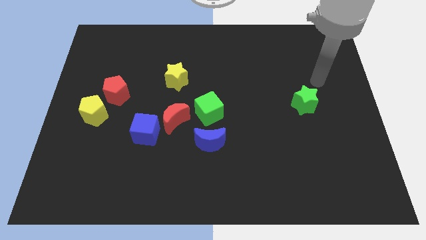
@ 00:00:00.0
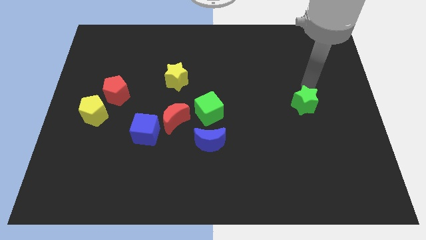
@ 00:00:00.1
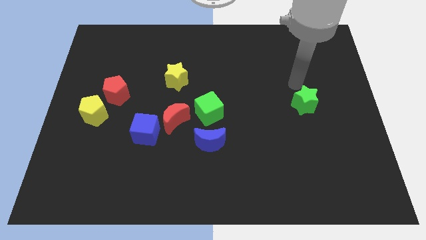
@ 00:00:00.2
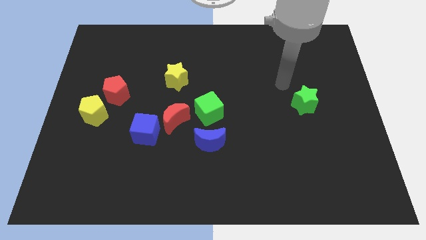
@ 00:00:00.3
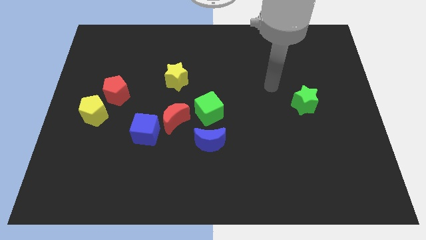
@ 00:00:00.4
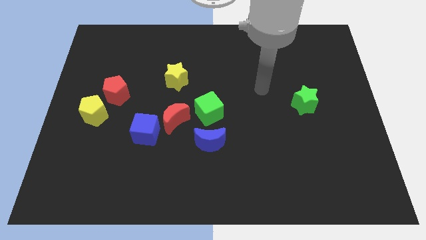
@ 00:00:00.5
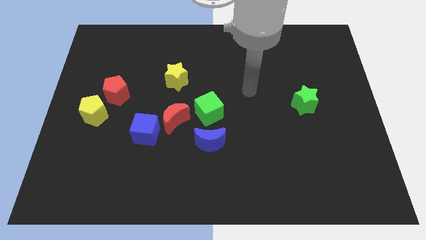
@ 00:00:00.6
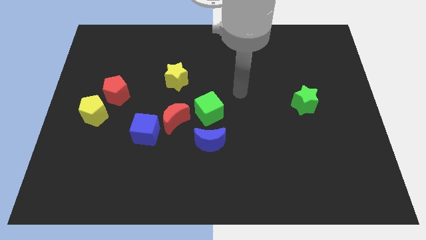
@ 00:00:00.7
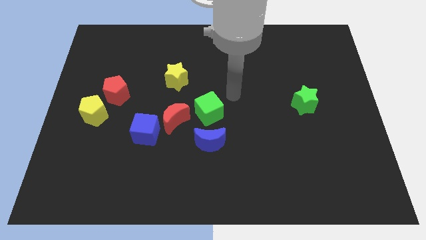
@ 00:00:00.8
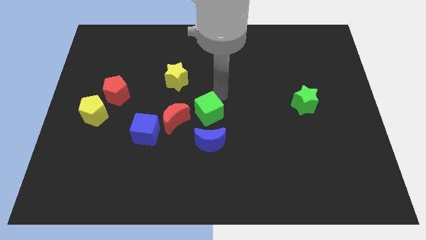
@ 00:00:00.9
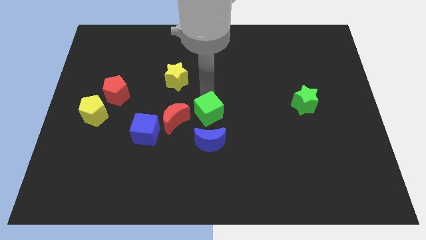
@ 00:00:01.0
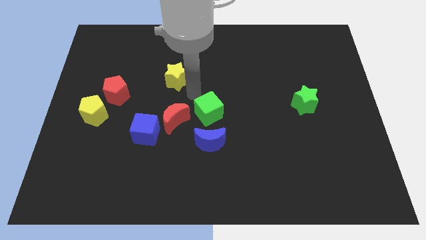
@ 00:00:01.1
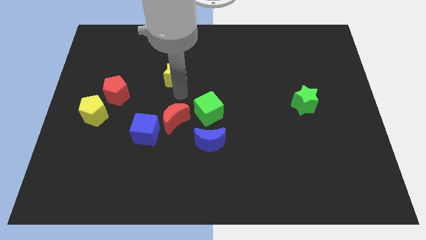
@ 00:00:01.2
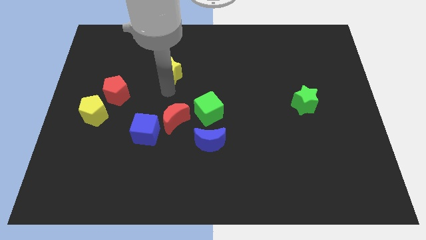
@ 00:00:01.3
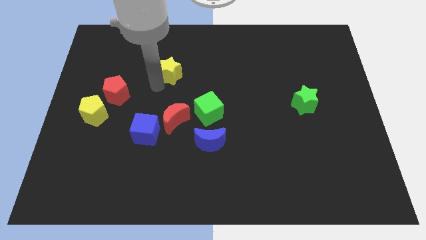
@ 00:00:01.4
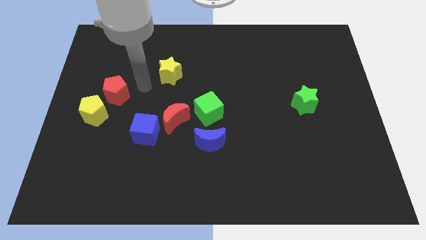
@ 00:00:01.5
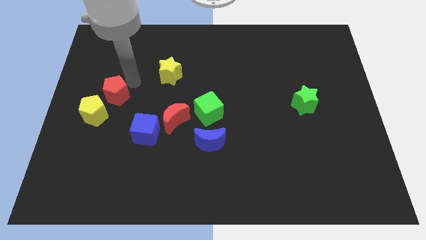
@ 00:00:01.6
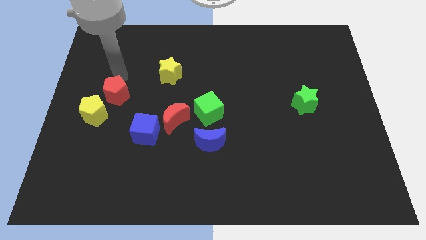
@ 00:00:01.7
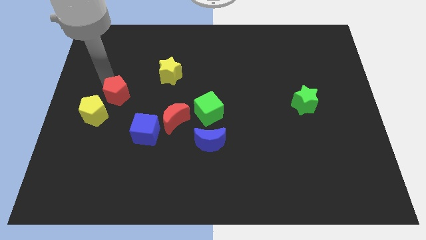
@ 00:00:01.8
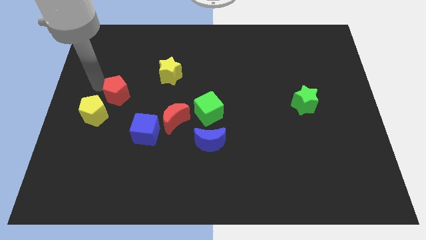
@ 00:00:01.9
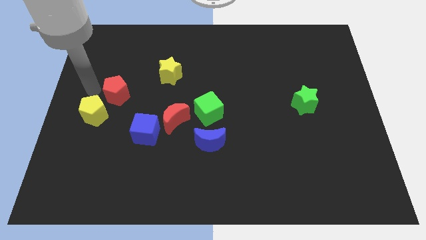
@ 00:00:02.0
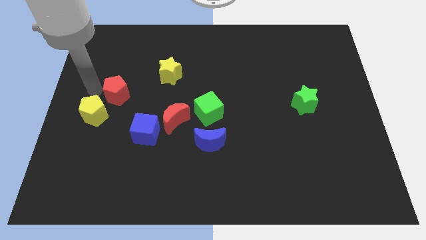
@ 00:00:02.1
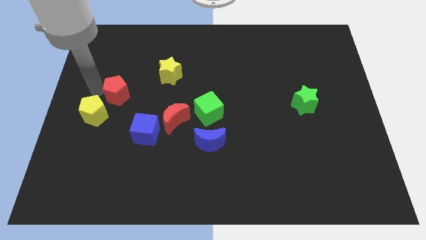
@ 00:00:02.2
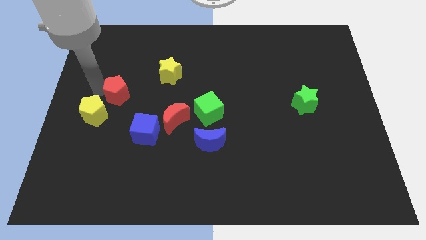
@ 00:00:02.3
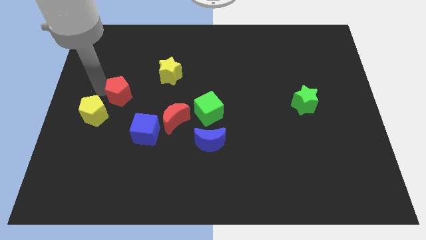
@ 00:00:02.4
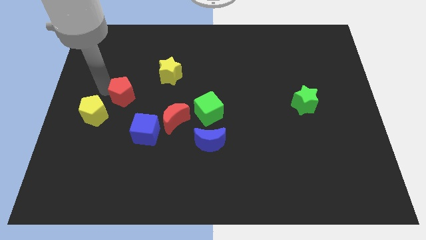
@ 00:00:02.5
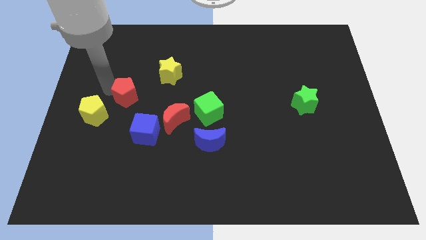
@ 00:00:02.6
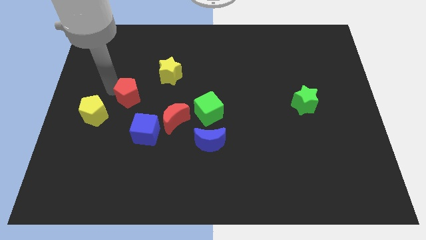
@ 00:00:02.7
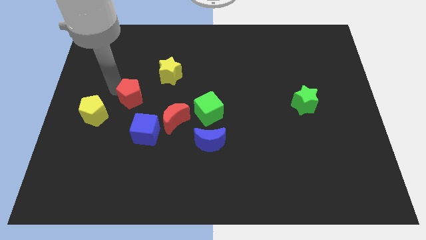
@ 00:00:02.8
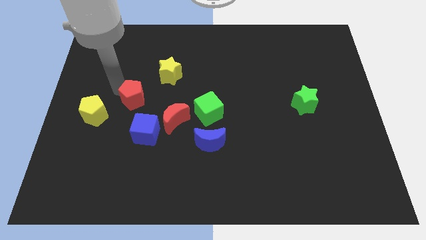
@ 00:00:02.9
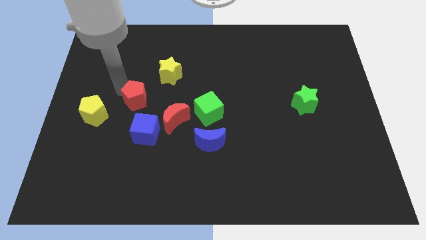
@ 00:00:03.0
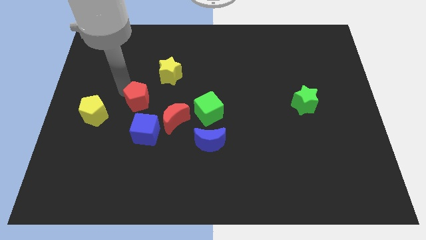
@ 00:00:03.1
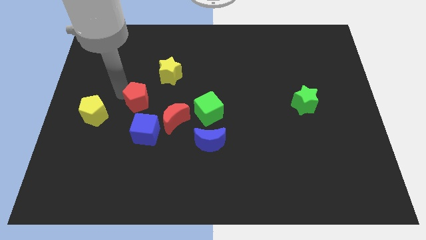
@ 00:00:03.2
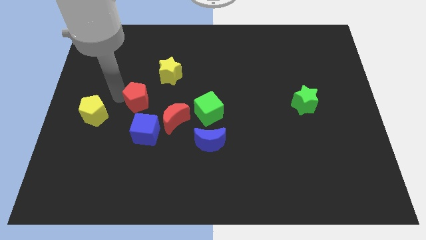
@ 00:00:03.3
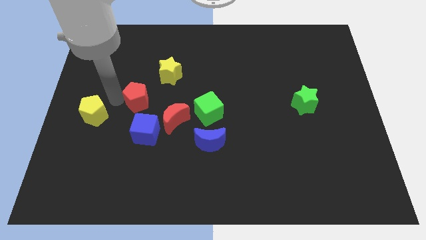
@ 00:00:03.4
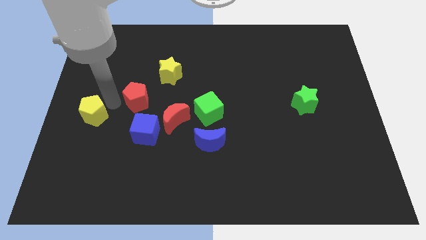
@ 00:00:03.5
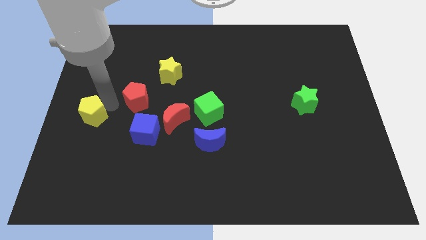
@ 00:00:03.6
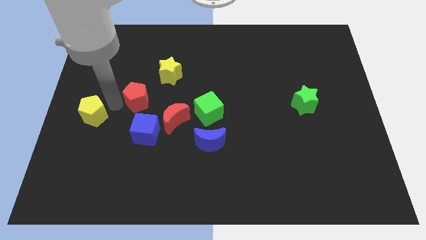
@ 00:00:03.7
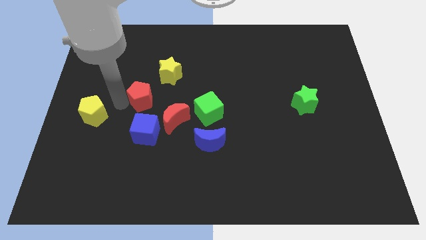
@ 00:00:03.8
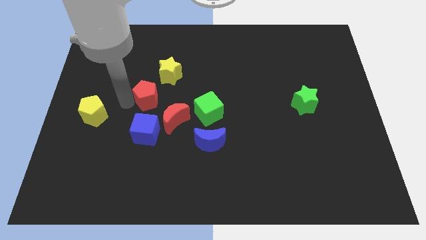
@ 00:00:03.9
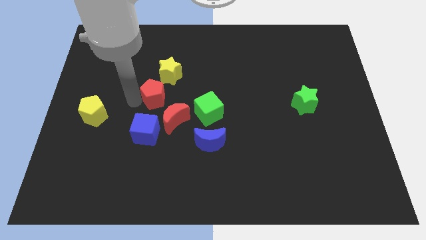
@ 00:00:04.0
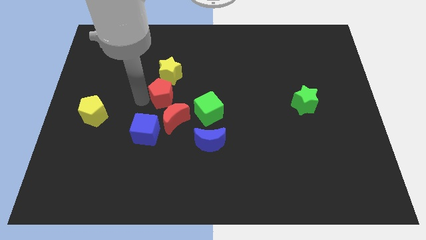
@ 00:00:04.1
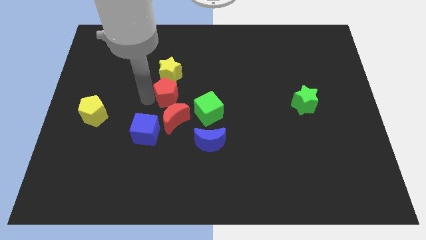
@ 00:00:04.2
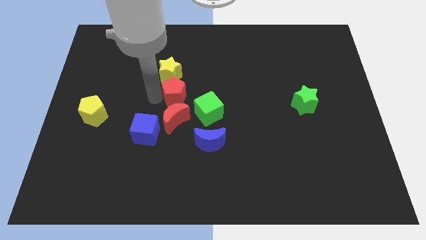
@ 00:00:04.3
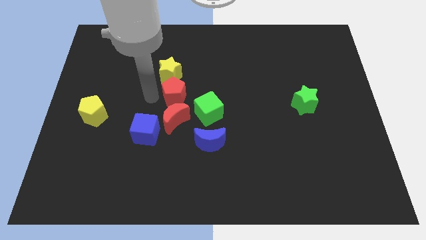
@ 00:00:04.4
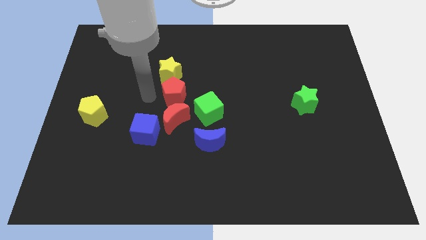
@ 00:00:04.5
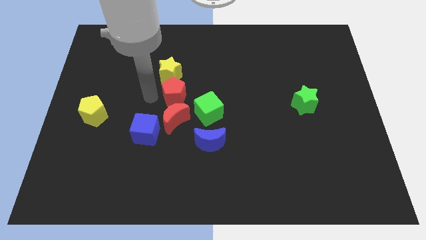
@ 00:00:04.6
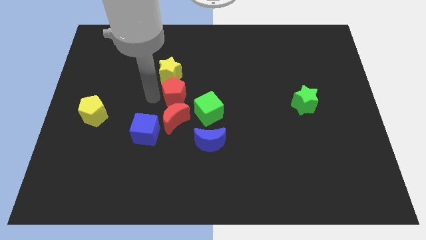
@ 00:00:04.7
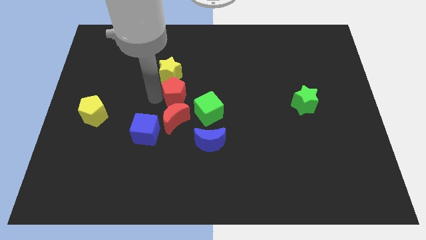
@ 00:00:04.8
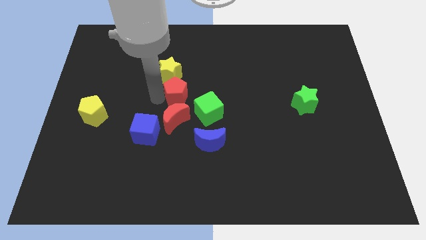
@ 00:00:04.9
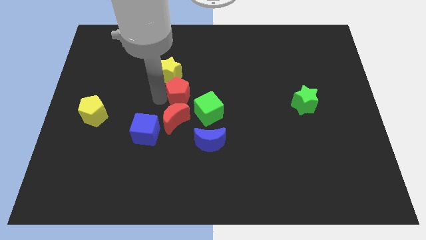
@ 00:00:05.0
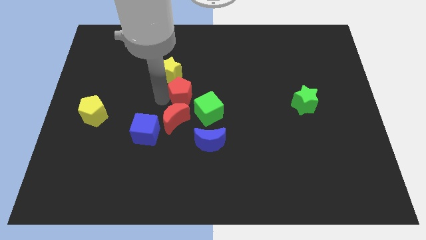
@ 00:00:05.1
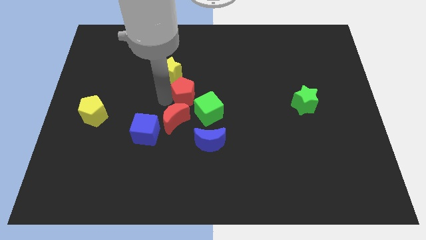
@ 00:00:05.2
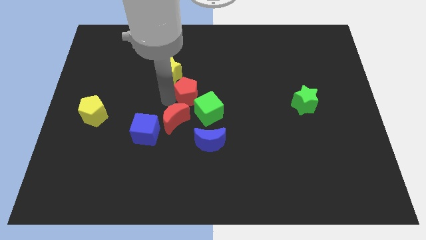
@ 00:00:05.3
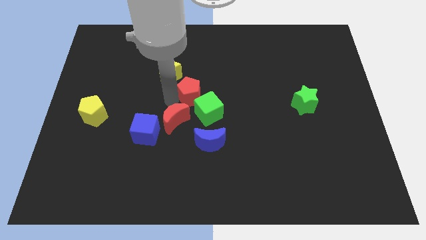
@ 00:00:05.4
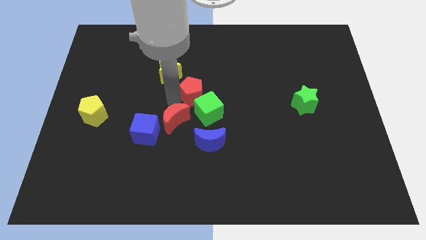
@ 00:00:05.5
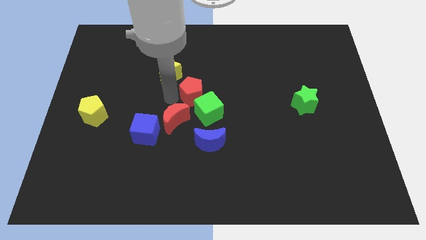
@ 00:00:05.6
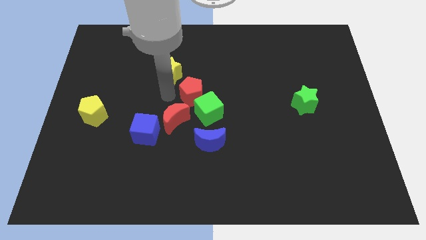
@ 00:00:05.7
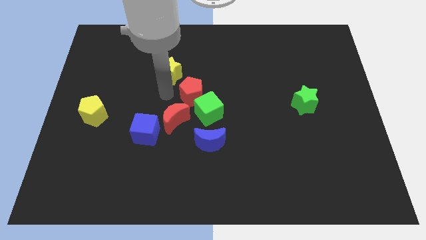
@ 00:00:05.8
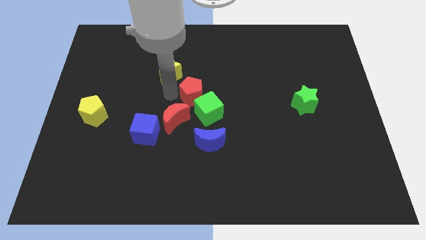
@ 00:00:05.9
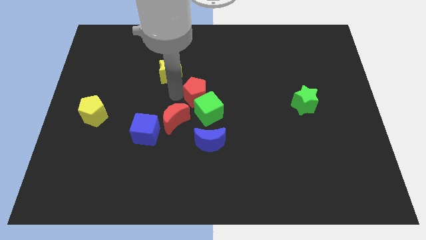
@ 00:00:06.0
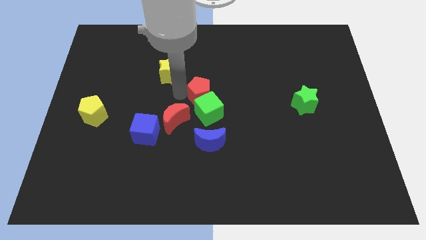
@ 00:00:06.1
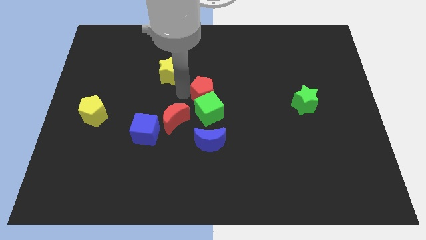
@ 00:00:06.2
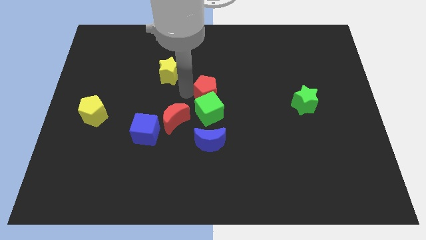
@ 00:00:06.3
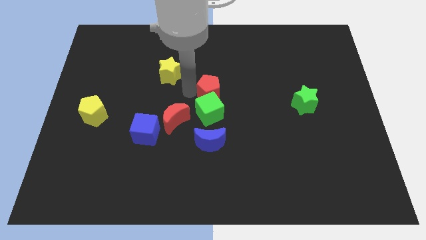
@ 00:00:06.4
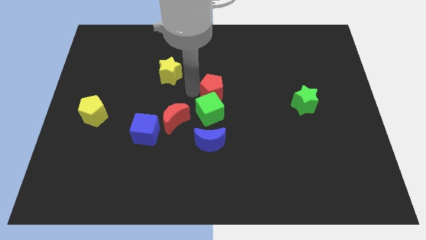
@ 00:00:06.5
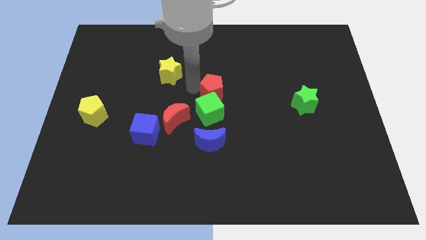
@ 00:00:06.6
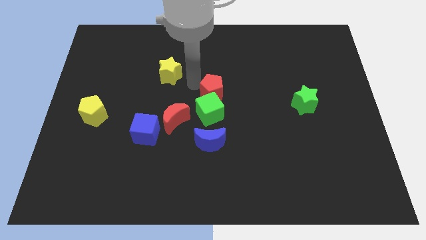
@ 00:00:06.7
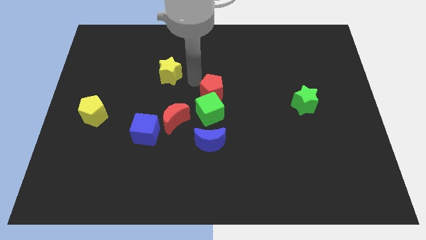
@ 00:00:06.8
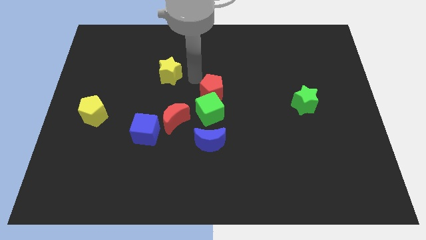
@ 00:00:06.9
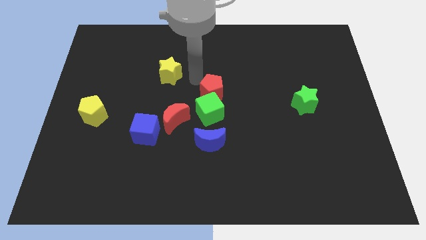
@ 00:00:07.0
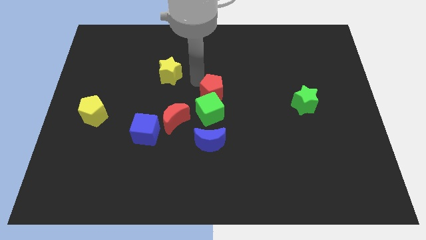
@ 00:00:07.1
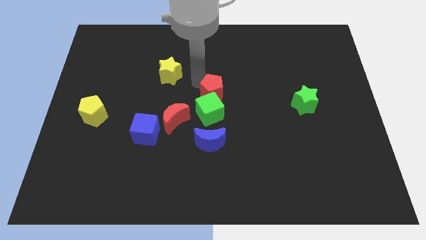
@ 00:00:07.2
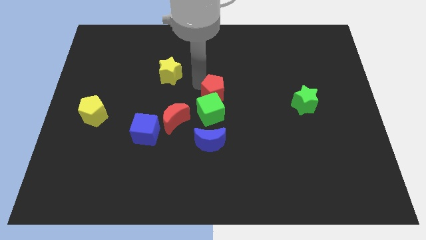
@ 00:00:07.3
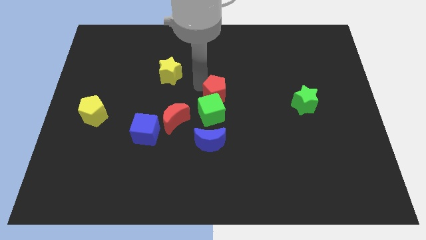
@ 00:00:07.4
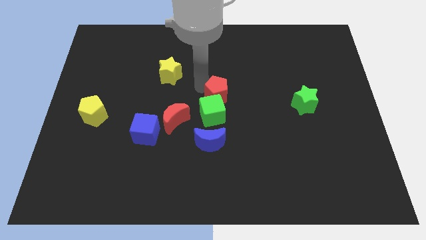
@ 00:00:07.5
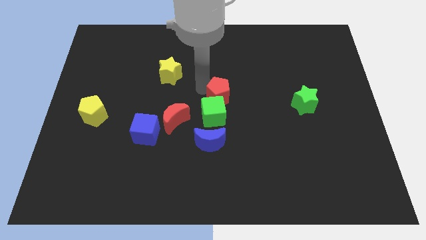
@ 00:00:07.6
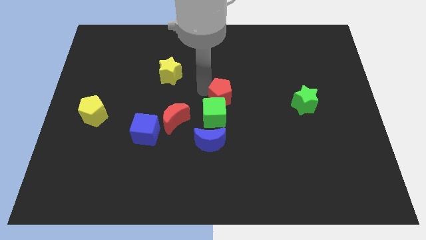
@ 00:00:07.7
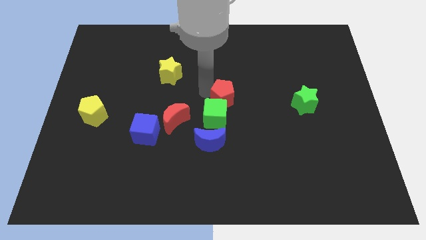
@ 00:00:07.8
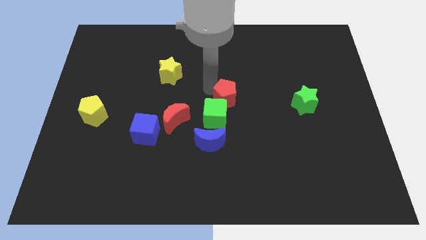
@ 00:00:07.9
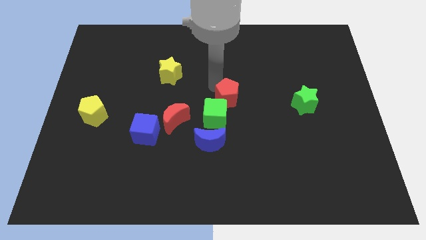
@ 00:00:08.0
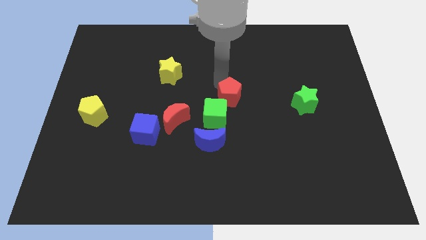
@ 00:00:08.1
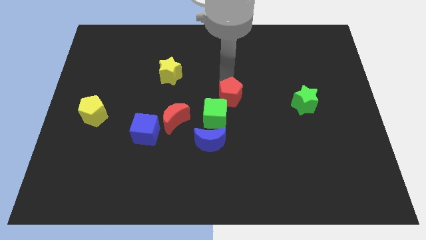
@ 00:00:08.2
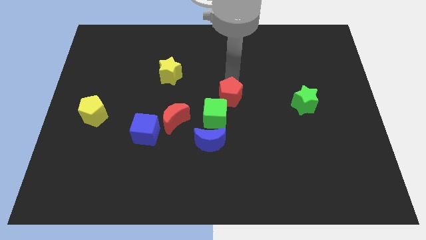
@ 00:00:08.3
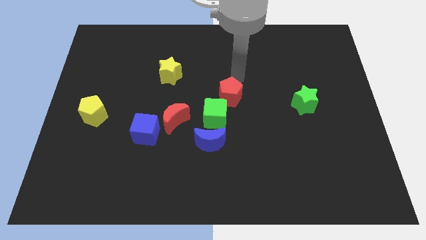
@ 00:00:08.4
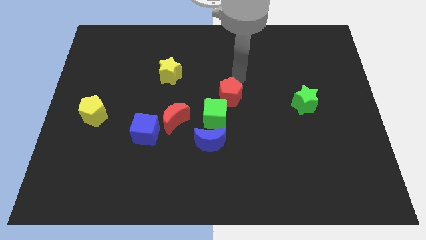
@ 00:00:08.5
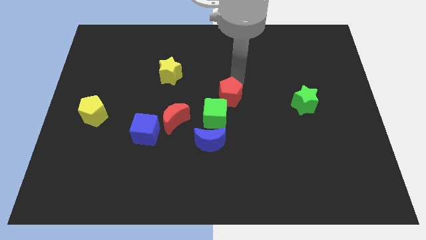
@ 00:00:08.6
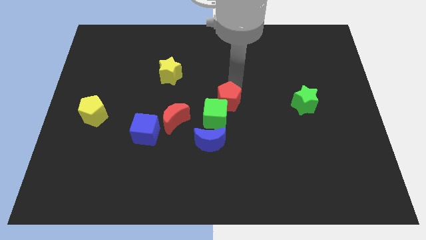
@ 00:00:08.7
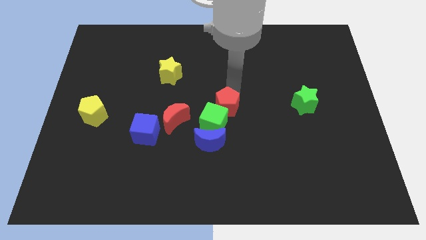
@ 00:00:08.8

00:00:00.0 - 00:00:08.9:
slide the red pentagon to the right side of the red moon
